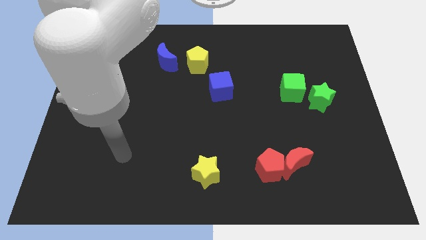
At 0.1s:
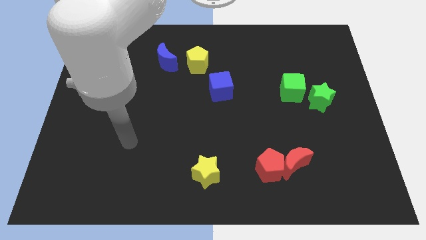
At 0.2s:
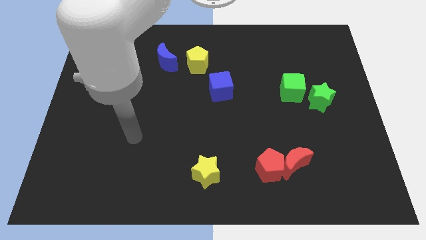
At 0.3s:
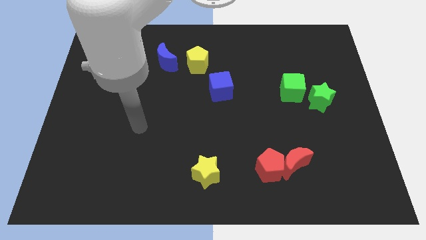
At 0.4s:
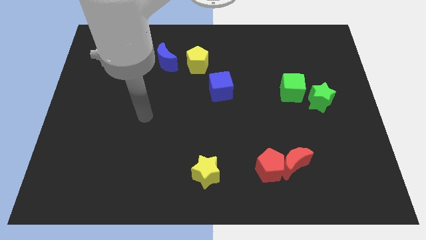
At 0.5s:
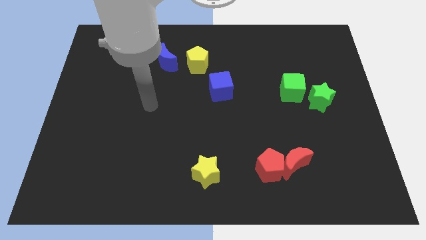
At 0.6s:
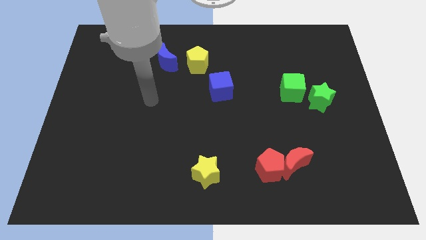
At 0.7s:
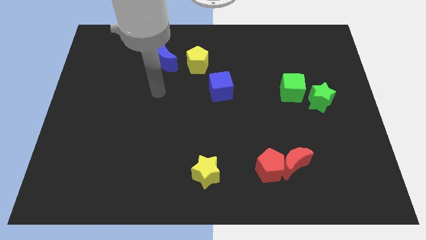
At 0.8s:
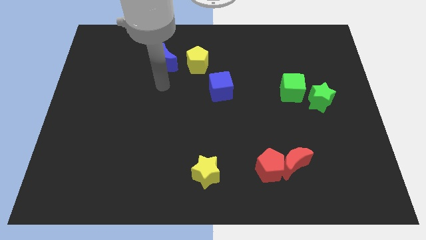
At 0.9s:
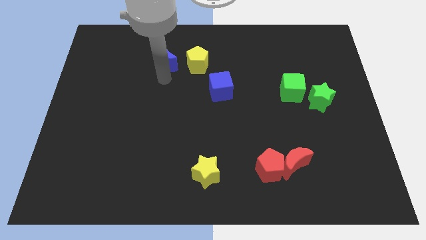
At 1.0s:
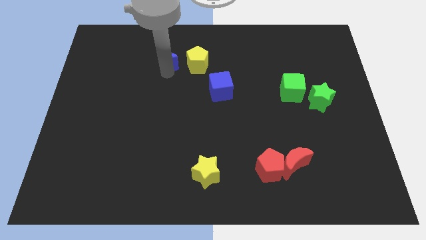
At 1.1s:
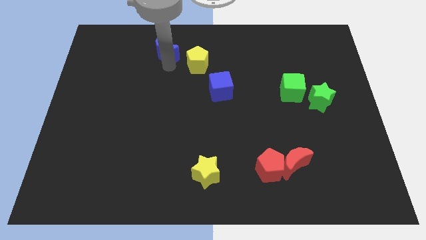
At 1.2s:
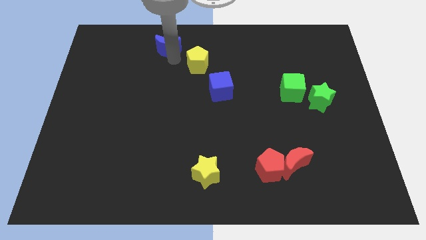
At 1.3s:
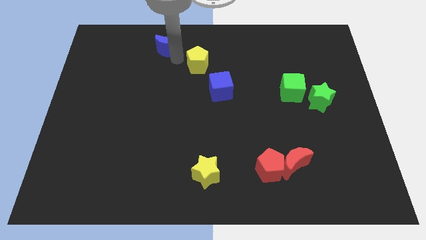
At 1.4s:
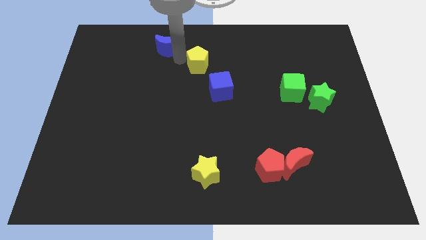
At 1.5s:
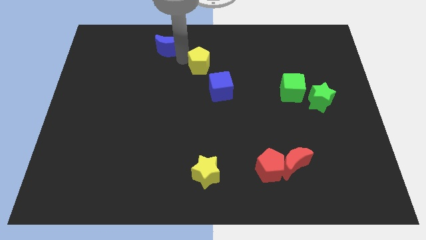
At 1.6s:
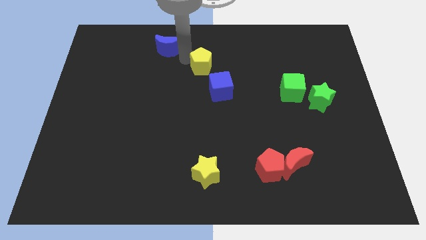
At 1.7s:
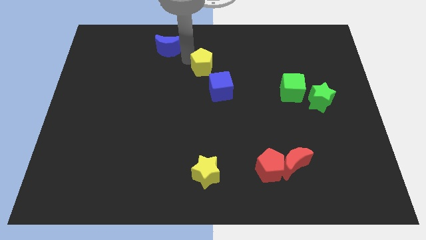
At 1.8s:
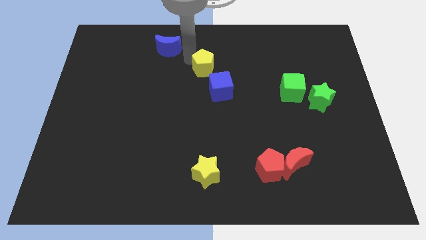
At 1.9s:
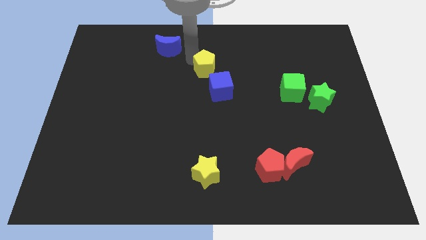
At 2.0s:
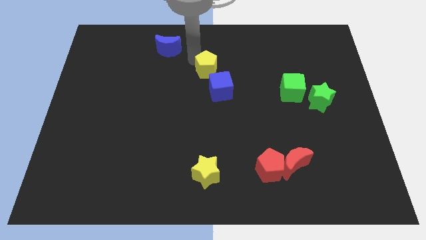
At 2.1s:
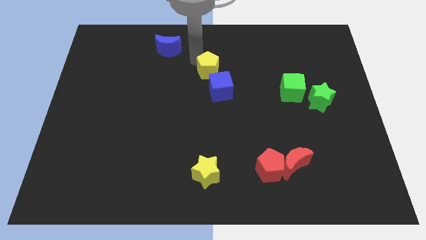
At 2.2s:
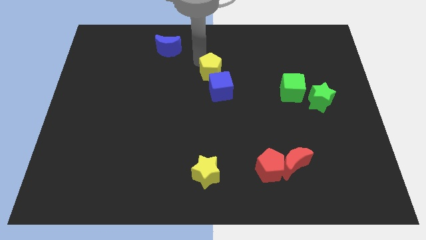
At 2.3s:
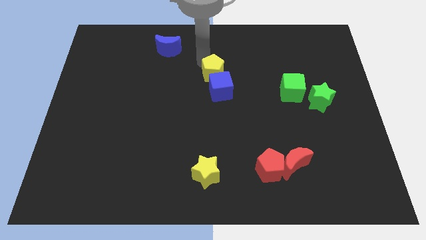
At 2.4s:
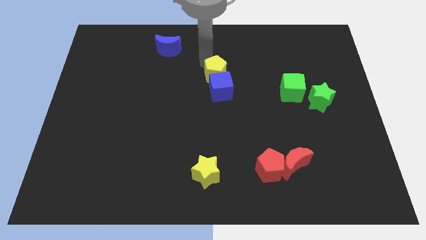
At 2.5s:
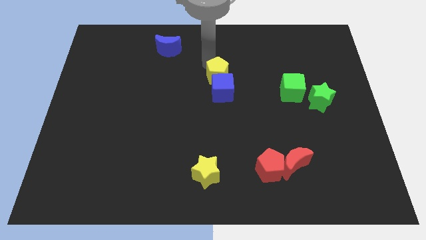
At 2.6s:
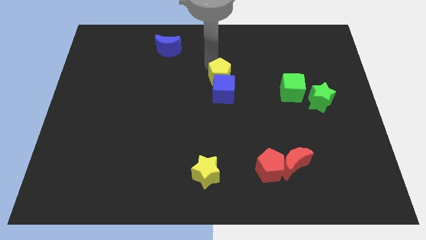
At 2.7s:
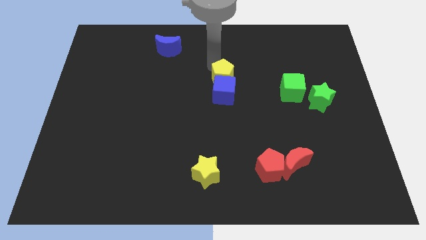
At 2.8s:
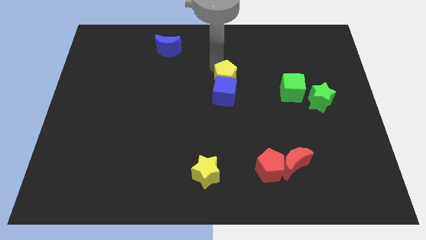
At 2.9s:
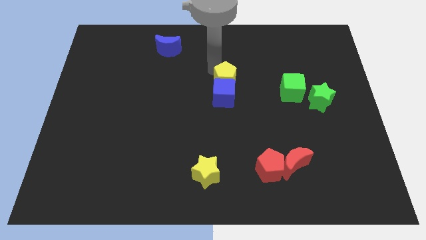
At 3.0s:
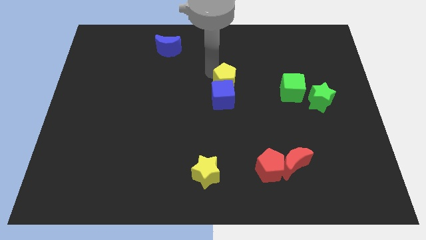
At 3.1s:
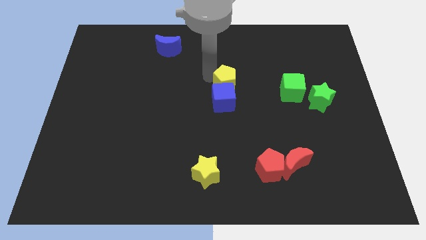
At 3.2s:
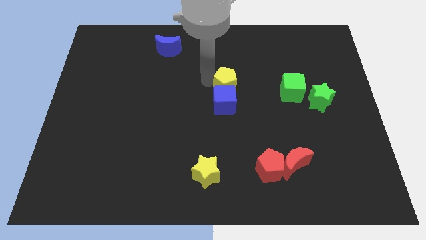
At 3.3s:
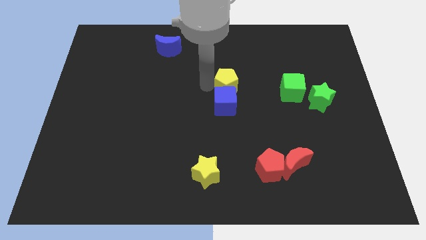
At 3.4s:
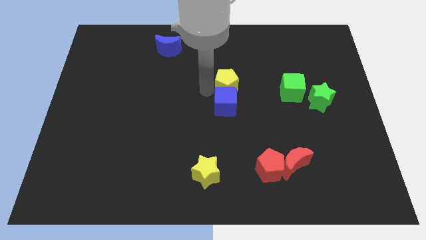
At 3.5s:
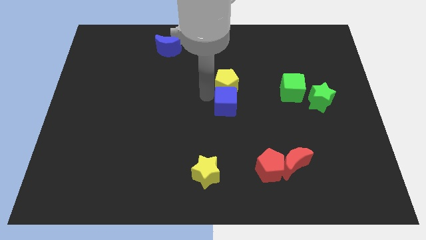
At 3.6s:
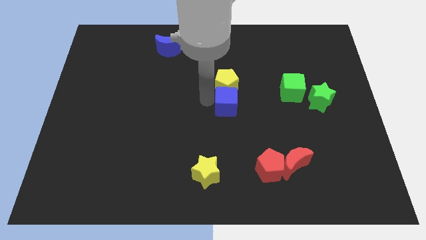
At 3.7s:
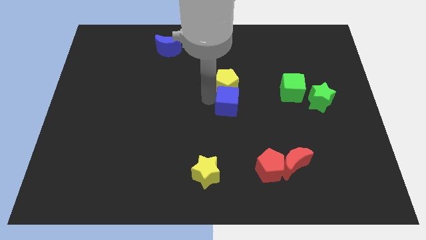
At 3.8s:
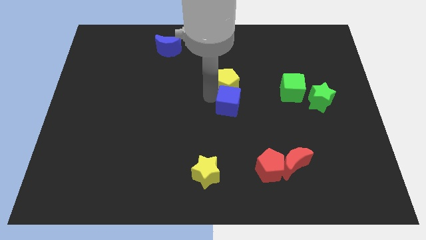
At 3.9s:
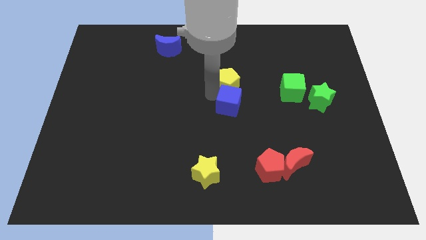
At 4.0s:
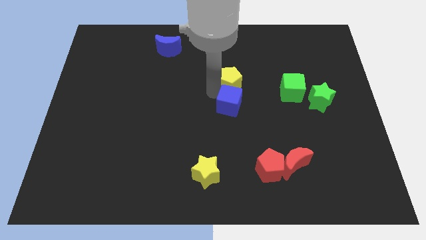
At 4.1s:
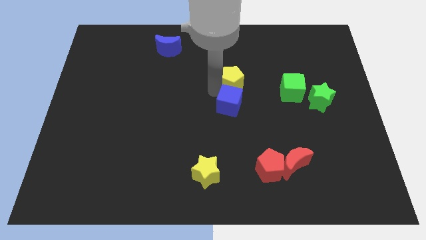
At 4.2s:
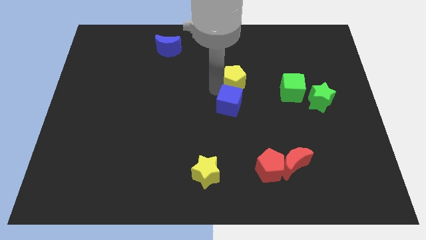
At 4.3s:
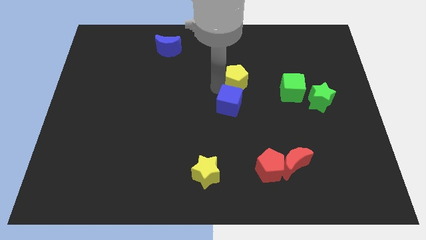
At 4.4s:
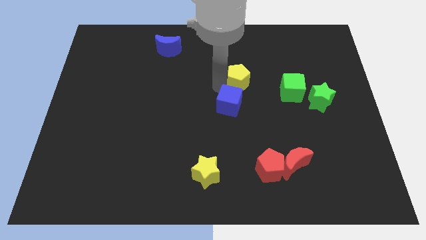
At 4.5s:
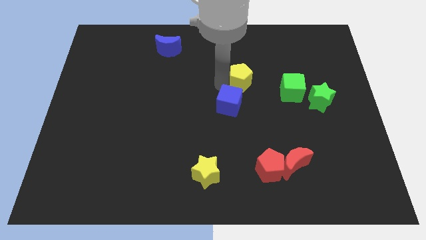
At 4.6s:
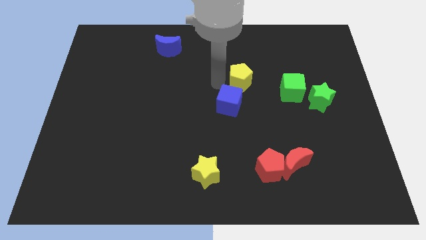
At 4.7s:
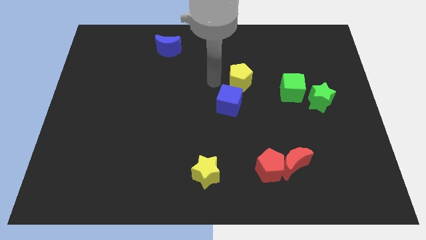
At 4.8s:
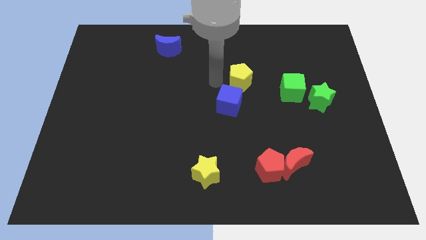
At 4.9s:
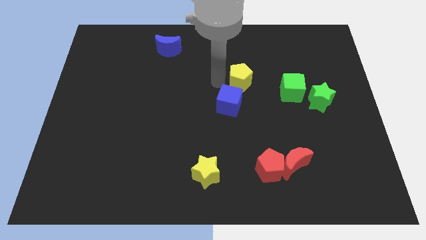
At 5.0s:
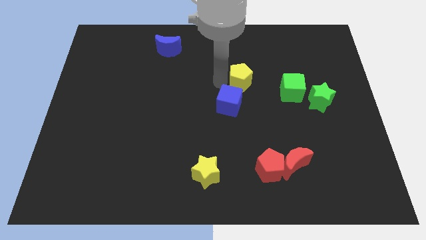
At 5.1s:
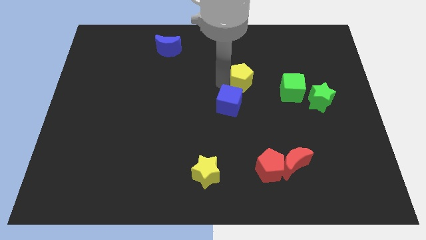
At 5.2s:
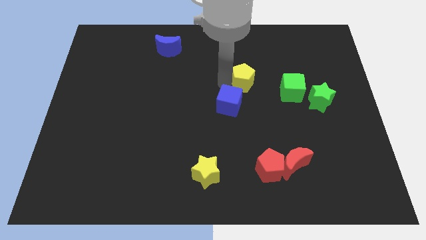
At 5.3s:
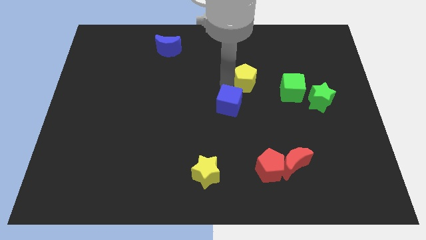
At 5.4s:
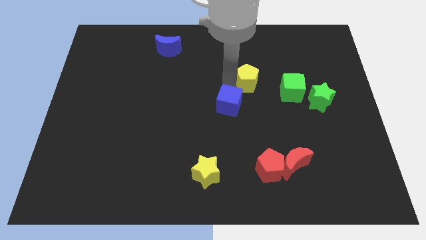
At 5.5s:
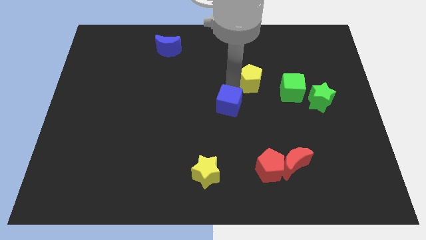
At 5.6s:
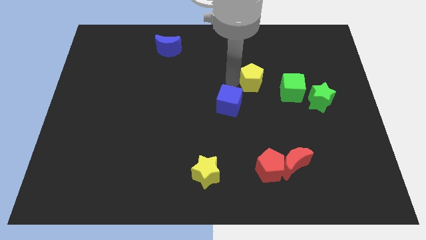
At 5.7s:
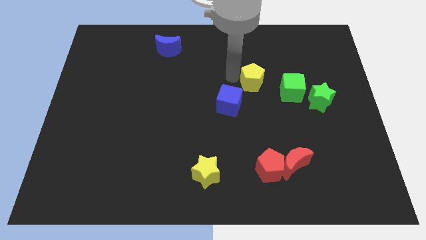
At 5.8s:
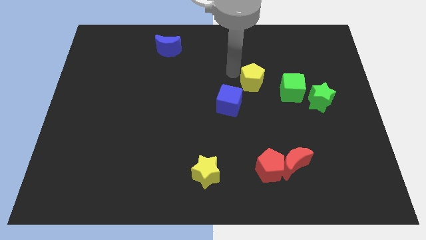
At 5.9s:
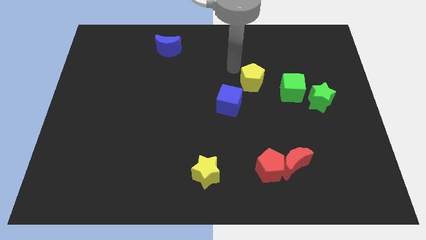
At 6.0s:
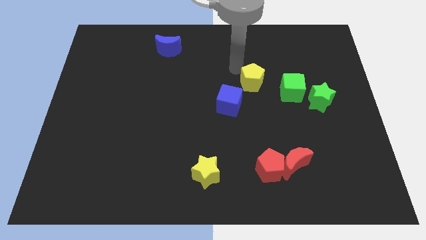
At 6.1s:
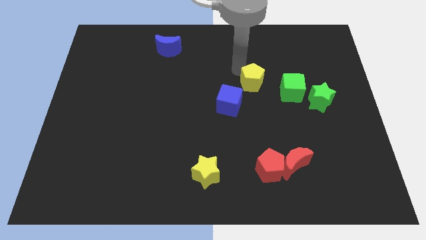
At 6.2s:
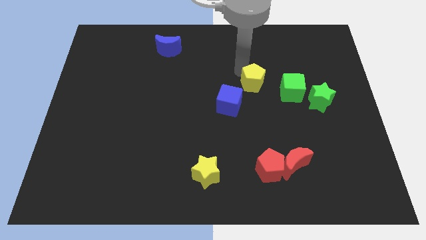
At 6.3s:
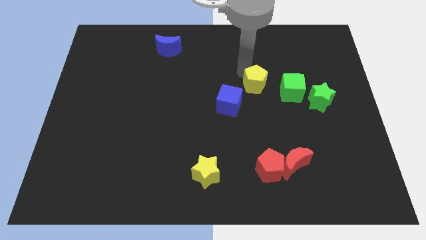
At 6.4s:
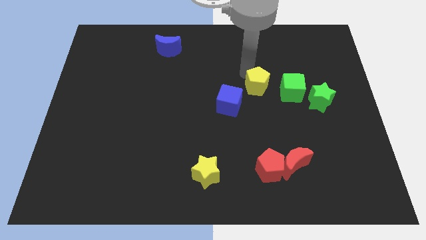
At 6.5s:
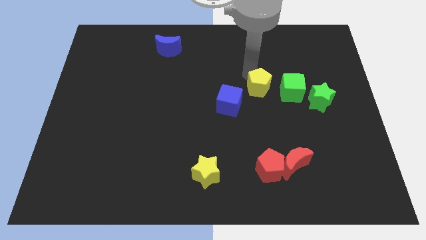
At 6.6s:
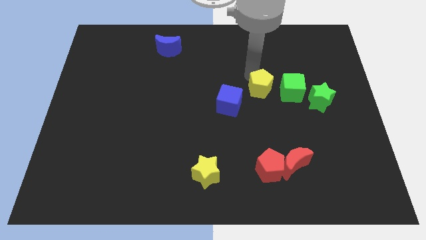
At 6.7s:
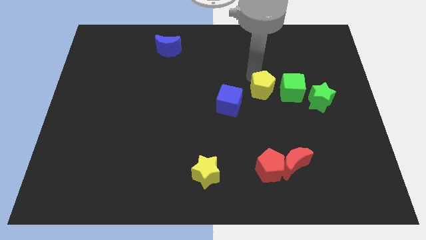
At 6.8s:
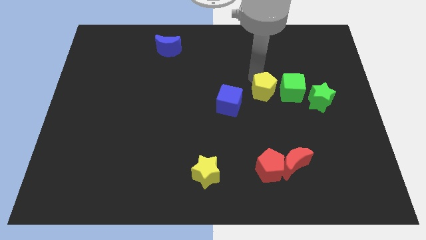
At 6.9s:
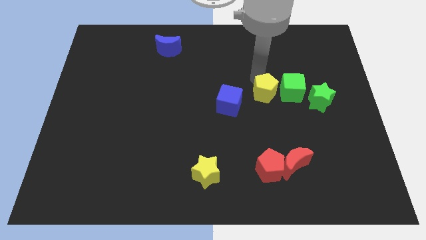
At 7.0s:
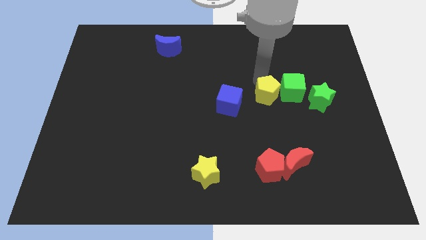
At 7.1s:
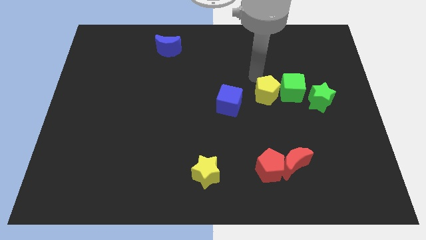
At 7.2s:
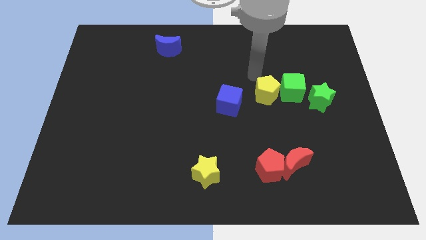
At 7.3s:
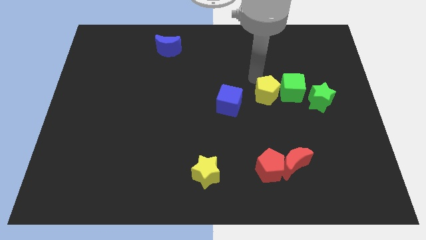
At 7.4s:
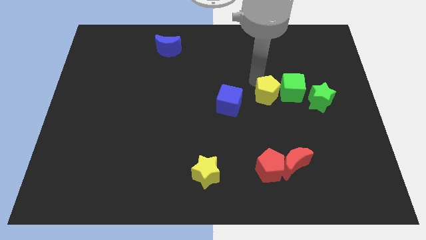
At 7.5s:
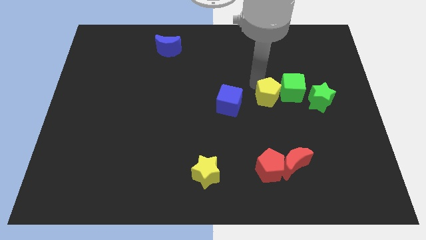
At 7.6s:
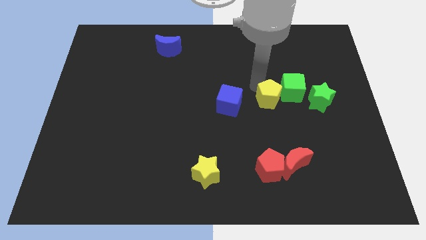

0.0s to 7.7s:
slide the yellow pentagon downwards and right
